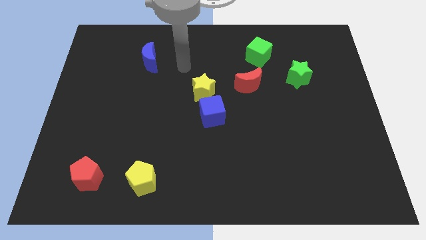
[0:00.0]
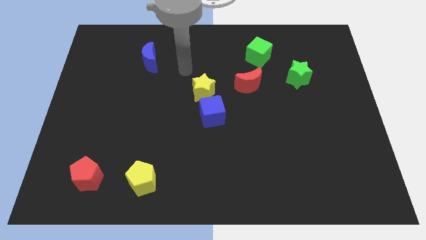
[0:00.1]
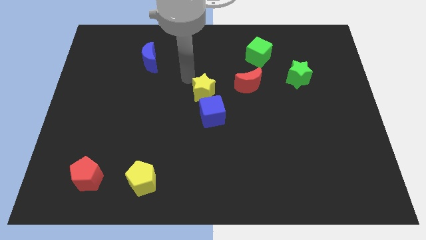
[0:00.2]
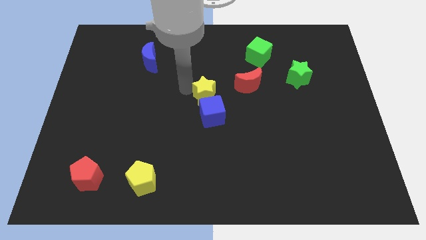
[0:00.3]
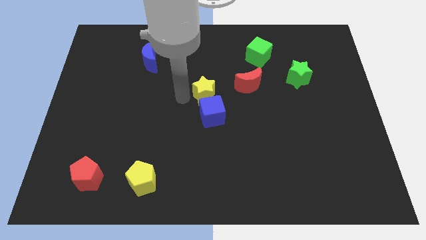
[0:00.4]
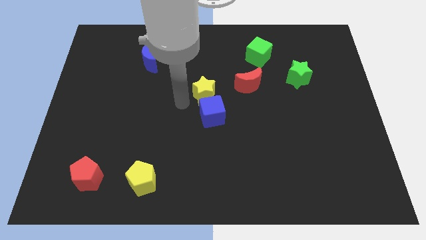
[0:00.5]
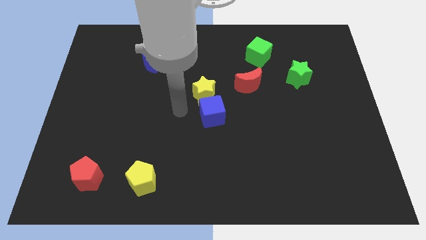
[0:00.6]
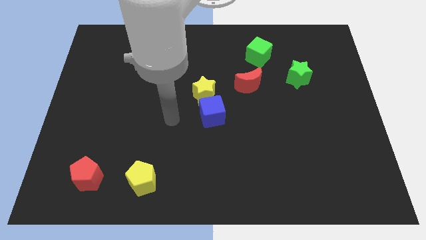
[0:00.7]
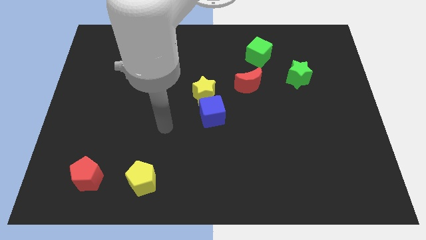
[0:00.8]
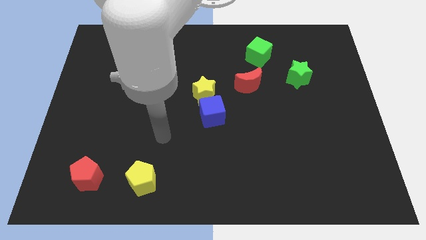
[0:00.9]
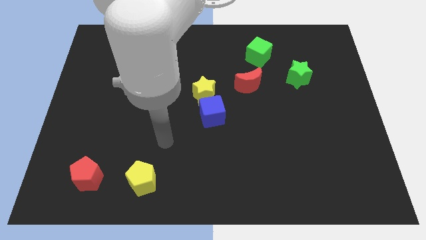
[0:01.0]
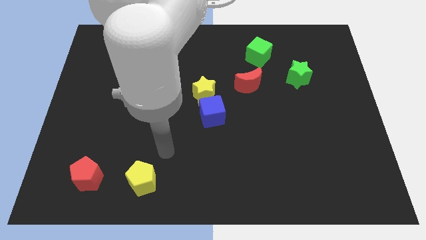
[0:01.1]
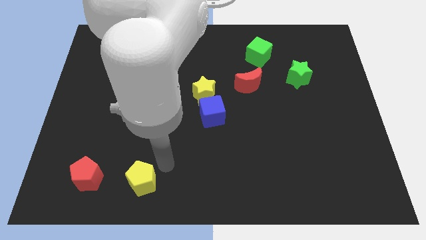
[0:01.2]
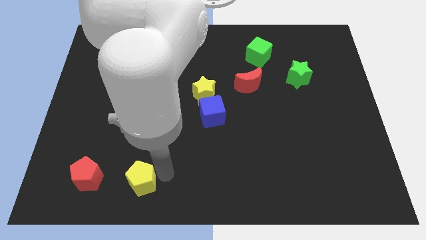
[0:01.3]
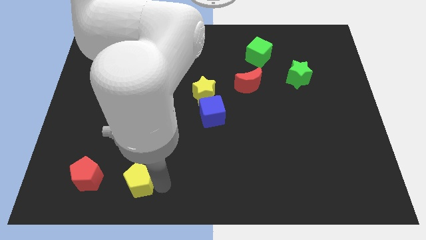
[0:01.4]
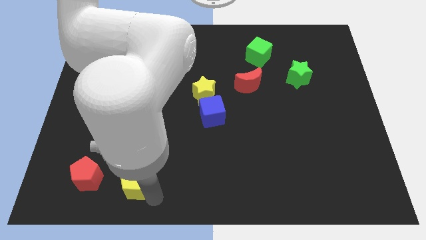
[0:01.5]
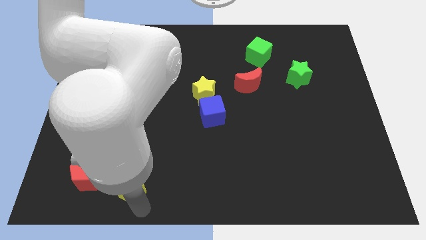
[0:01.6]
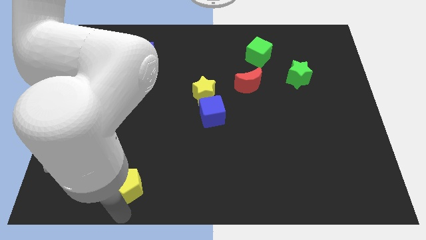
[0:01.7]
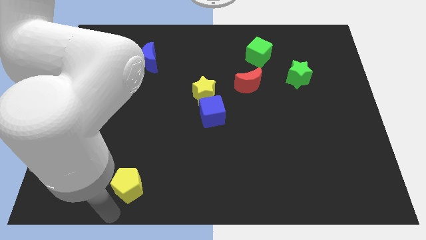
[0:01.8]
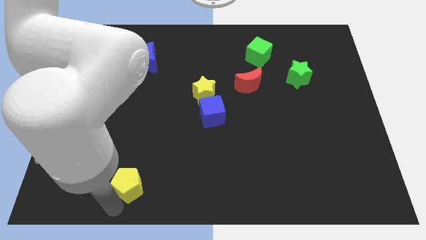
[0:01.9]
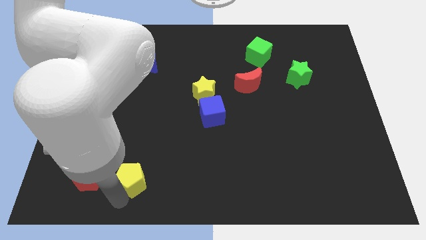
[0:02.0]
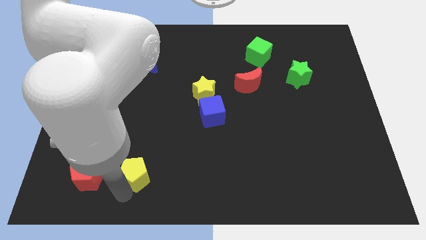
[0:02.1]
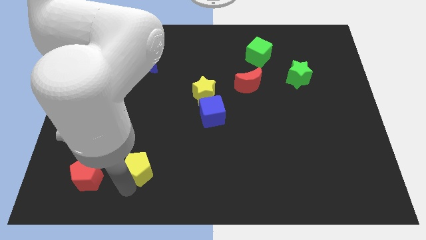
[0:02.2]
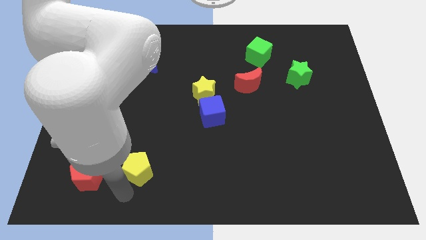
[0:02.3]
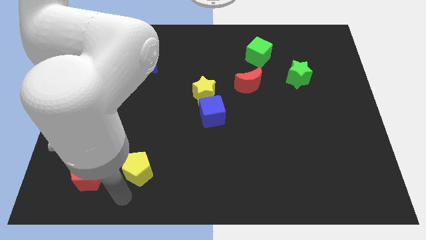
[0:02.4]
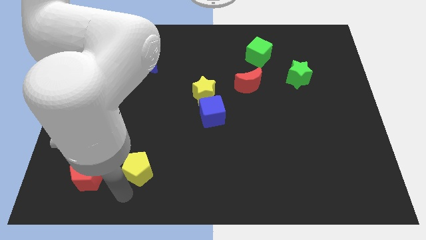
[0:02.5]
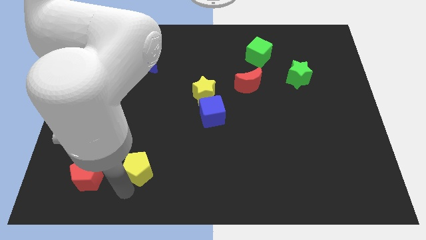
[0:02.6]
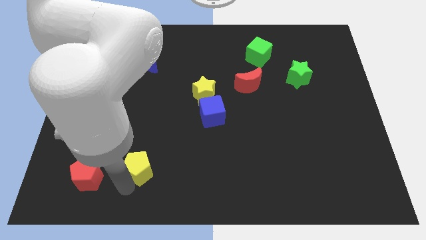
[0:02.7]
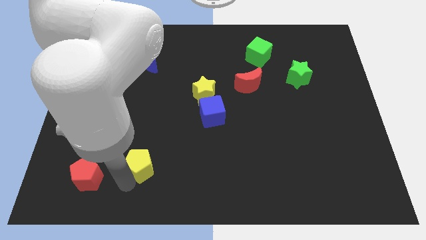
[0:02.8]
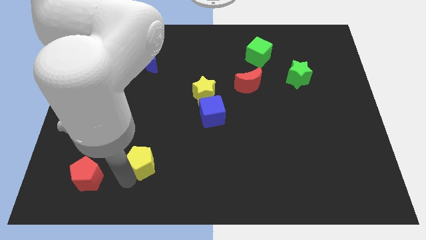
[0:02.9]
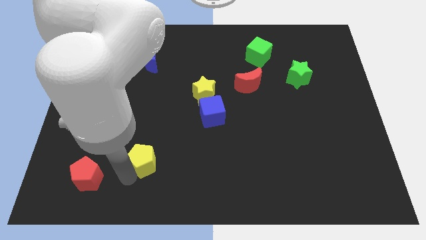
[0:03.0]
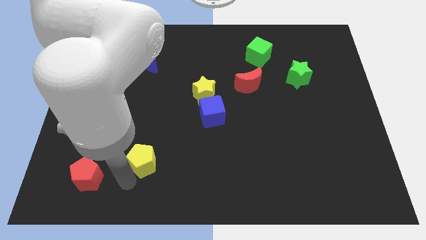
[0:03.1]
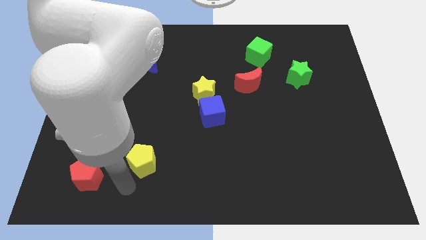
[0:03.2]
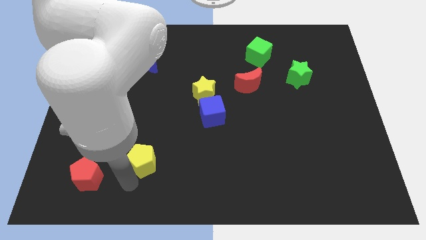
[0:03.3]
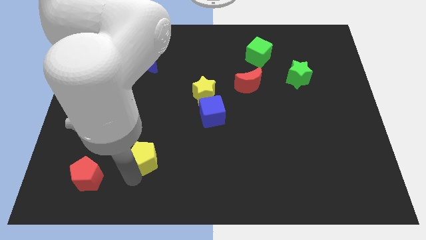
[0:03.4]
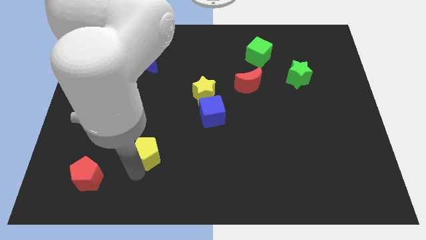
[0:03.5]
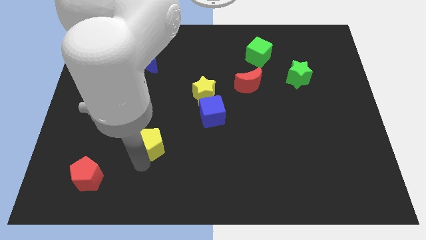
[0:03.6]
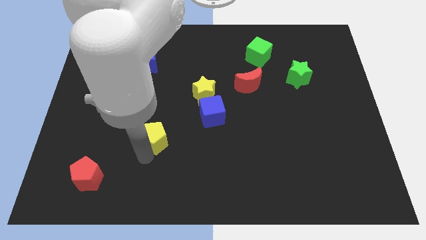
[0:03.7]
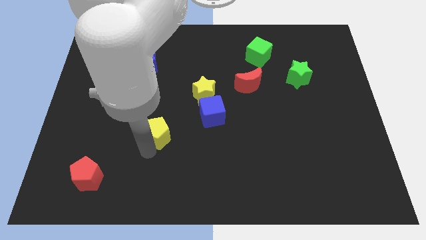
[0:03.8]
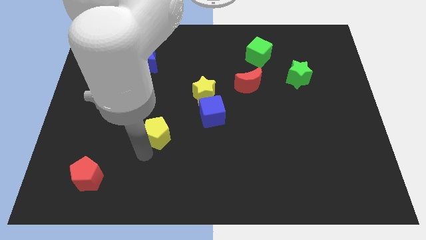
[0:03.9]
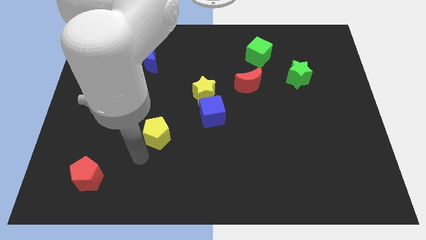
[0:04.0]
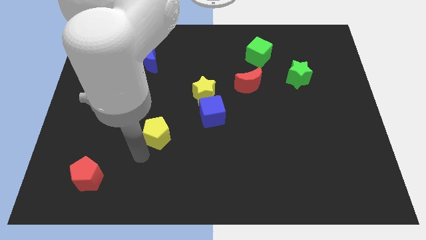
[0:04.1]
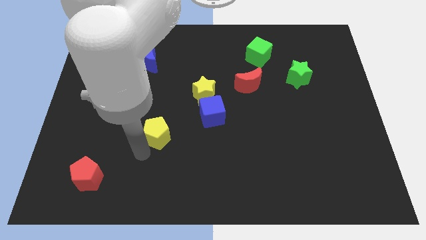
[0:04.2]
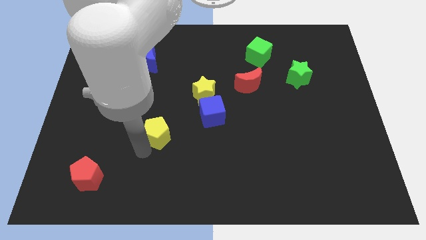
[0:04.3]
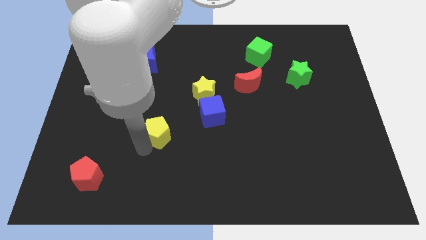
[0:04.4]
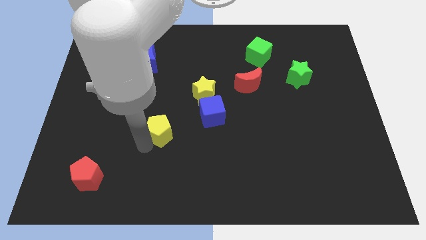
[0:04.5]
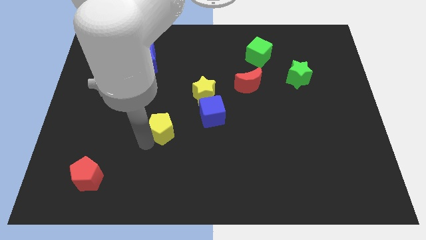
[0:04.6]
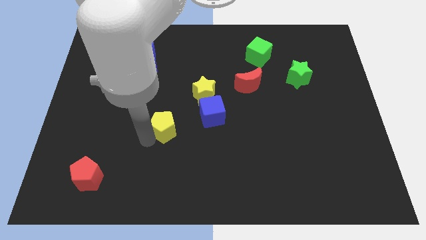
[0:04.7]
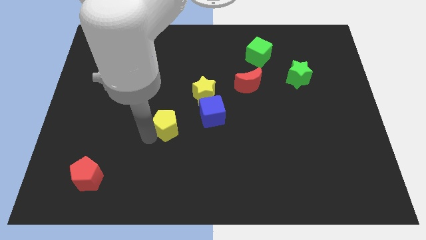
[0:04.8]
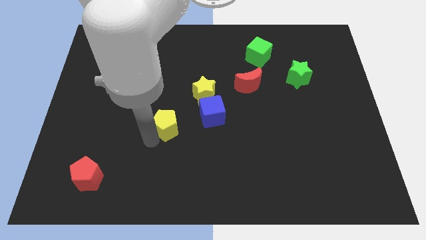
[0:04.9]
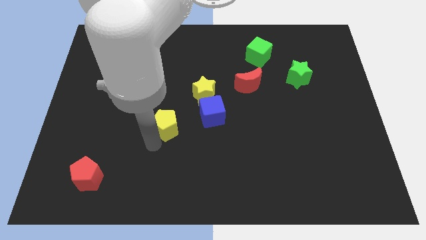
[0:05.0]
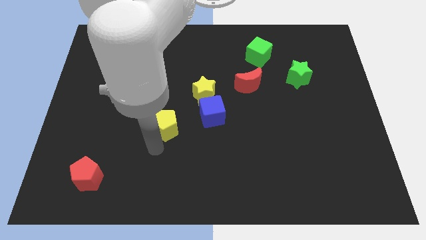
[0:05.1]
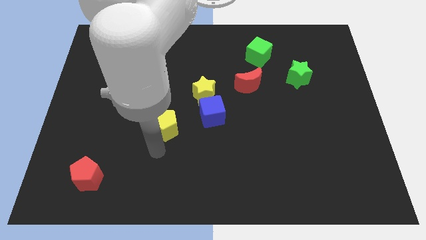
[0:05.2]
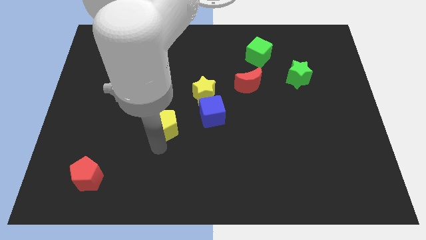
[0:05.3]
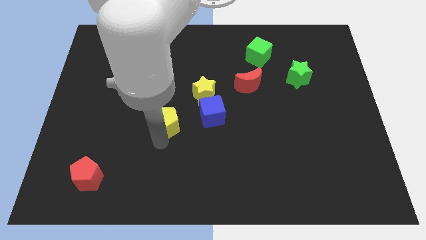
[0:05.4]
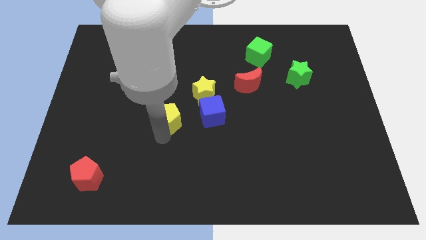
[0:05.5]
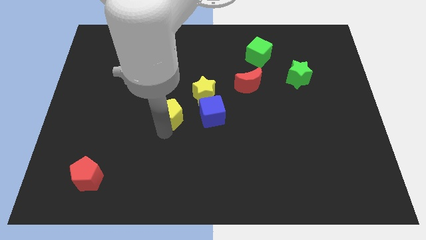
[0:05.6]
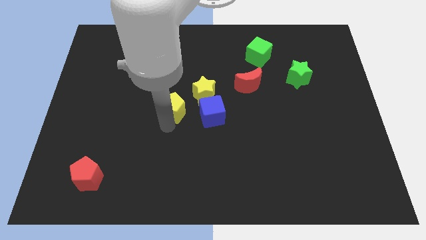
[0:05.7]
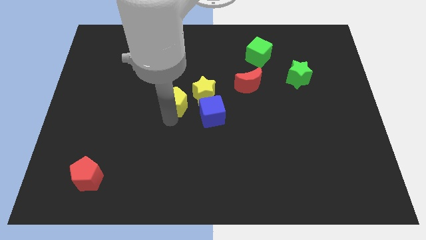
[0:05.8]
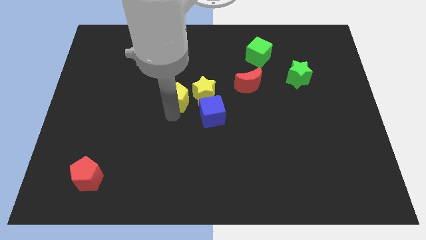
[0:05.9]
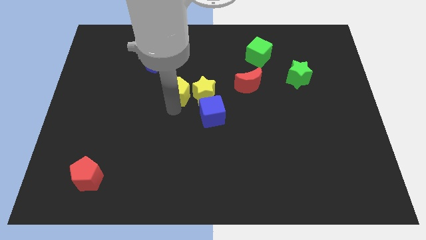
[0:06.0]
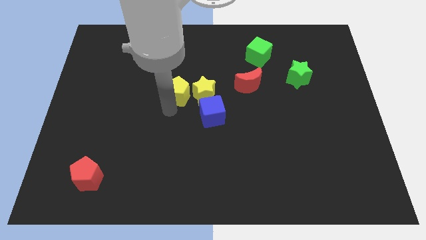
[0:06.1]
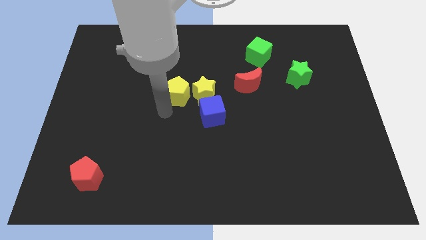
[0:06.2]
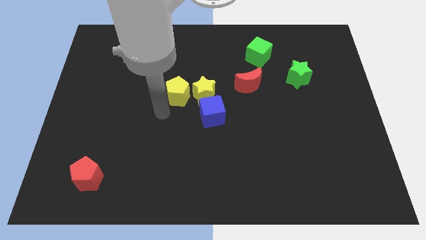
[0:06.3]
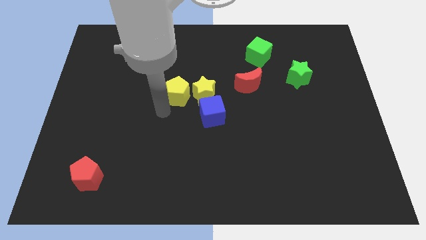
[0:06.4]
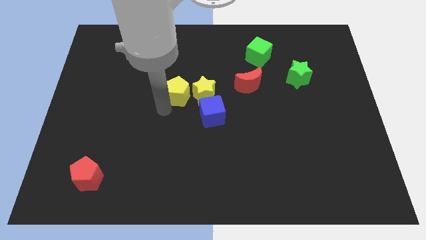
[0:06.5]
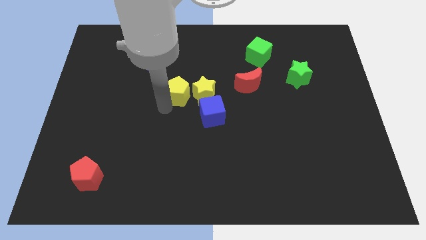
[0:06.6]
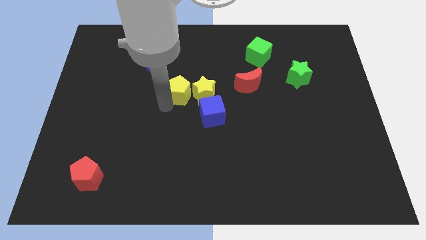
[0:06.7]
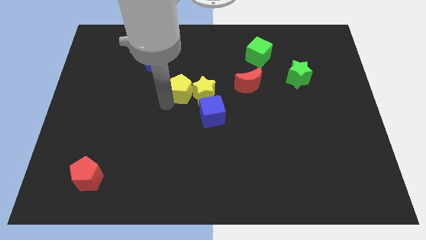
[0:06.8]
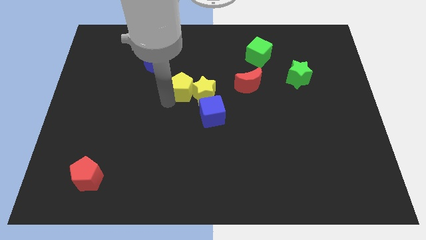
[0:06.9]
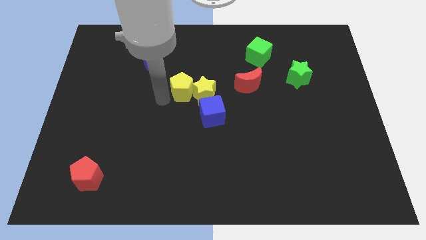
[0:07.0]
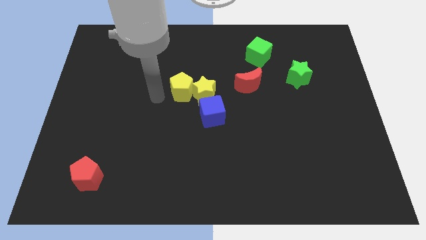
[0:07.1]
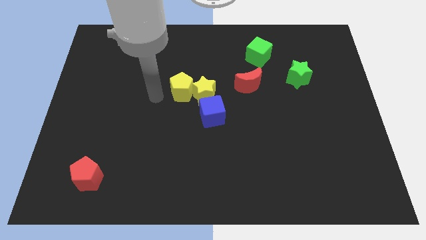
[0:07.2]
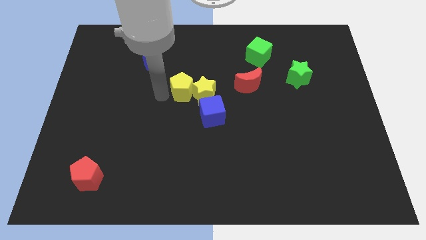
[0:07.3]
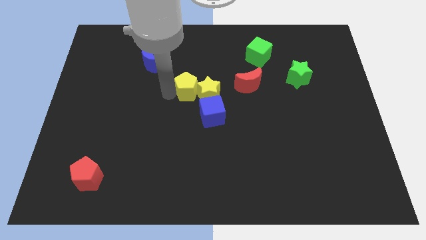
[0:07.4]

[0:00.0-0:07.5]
slide the yellow pentagon to the left side of the red moon
